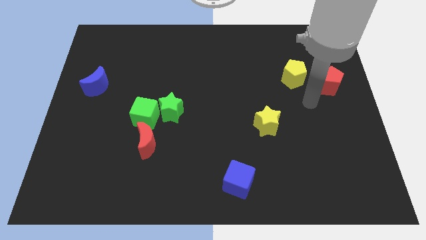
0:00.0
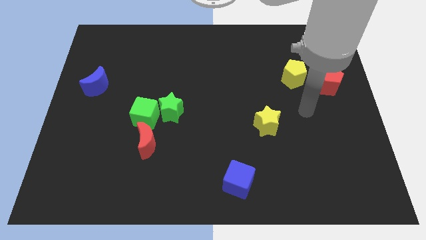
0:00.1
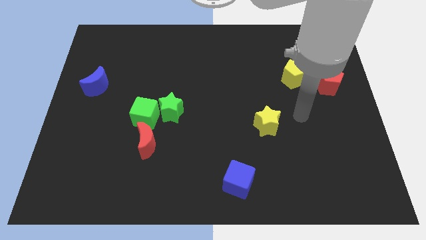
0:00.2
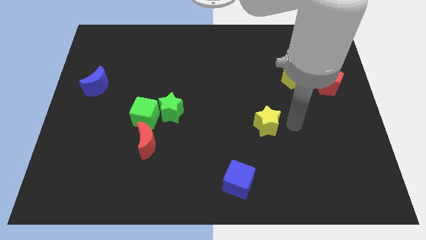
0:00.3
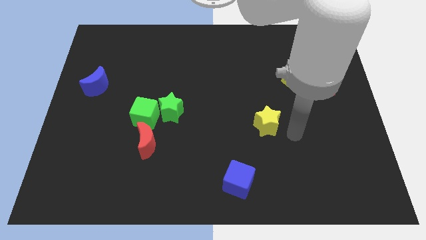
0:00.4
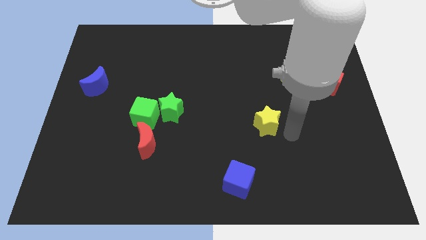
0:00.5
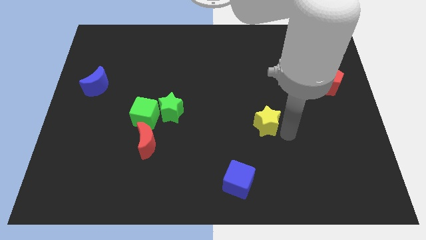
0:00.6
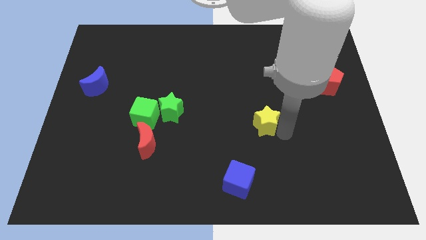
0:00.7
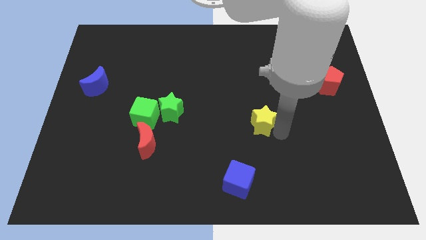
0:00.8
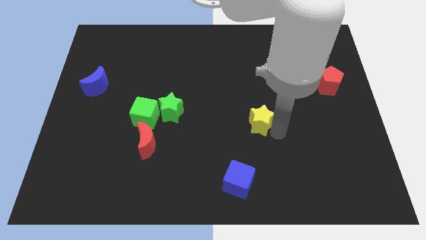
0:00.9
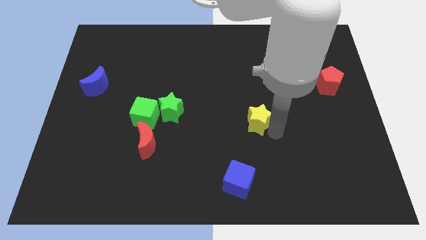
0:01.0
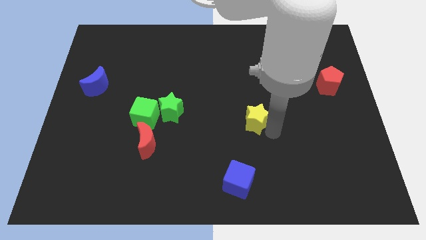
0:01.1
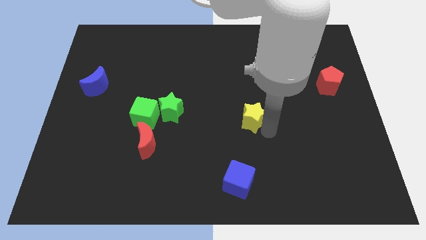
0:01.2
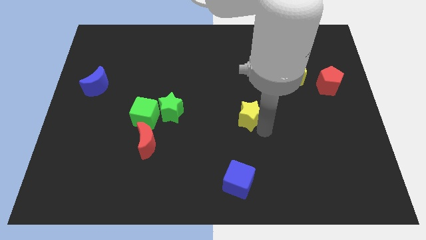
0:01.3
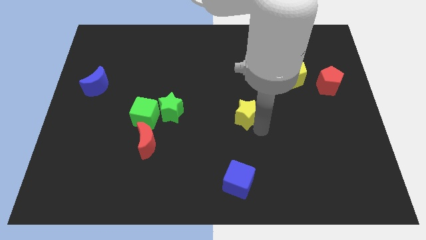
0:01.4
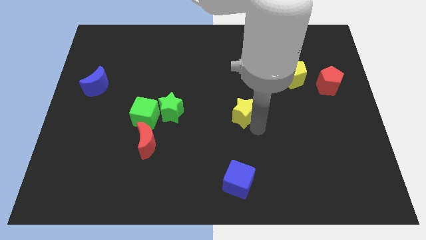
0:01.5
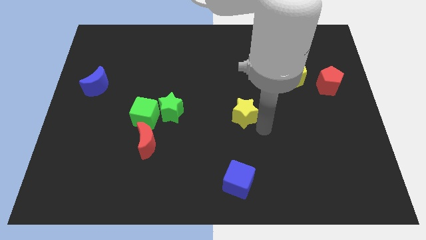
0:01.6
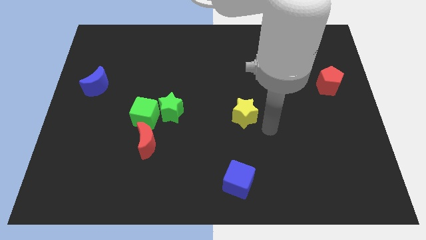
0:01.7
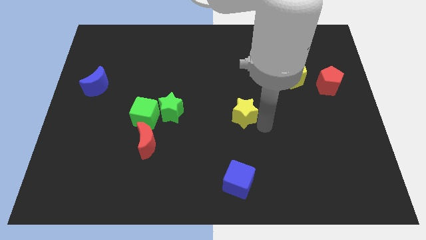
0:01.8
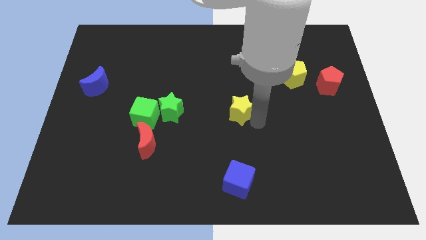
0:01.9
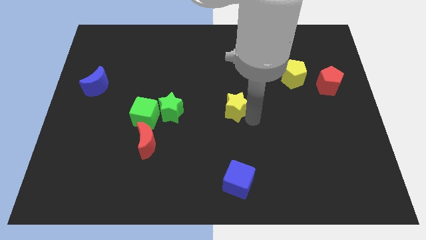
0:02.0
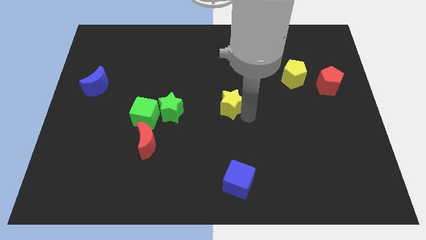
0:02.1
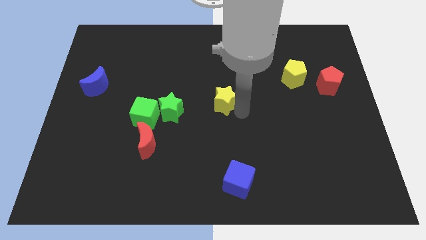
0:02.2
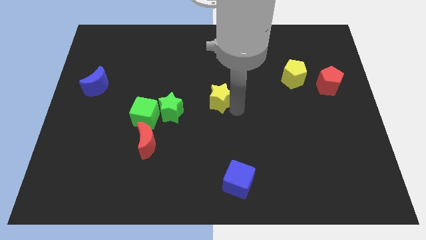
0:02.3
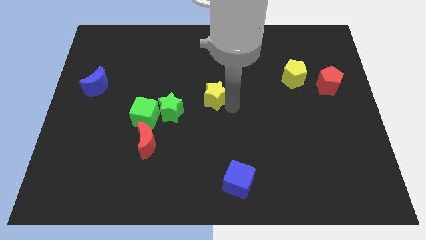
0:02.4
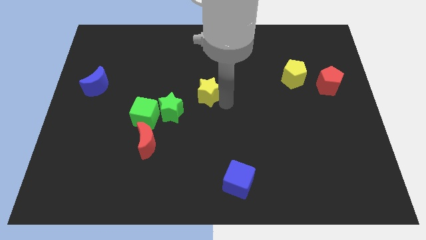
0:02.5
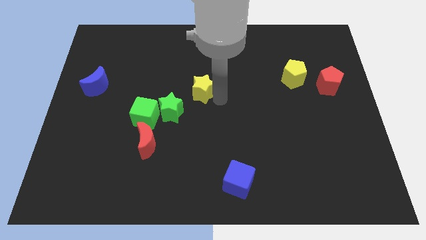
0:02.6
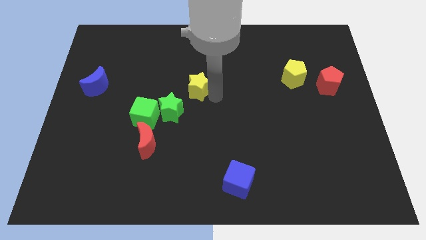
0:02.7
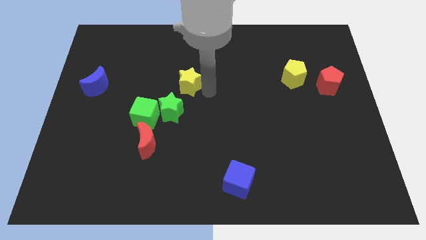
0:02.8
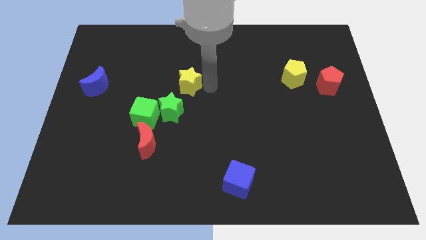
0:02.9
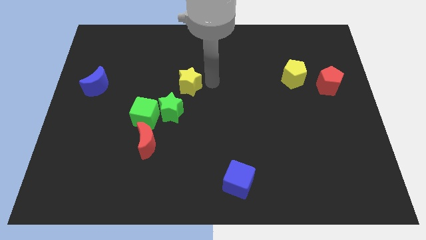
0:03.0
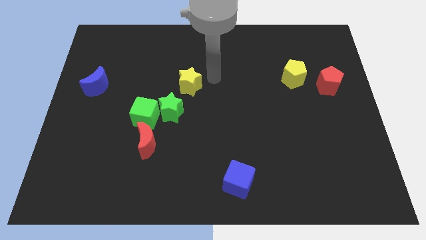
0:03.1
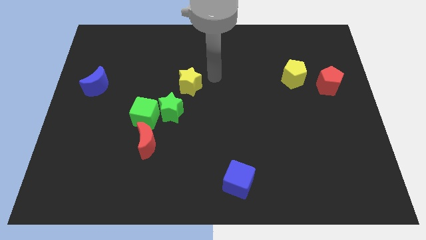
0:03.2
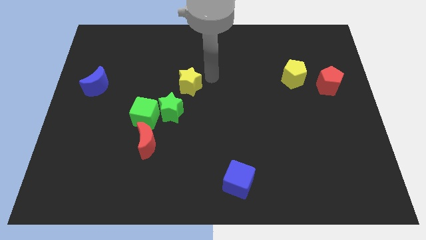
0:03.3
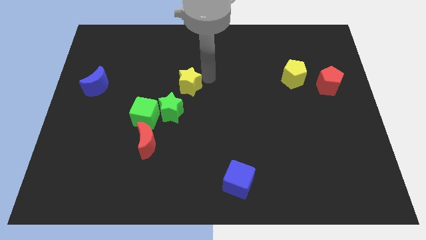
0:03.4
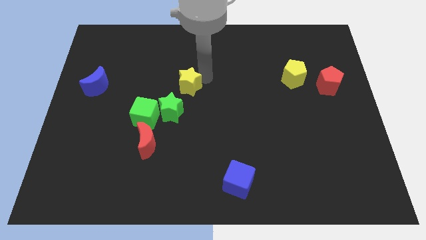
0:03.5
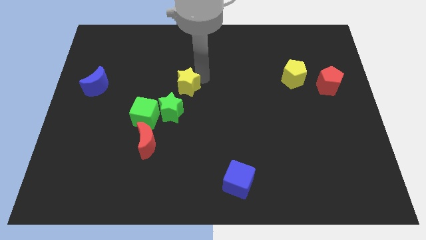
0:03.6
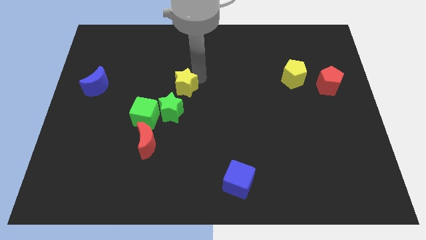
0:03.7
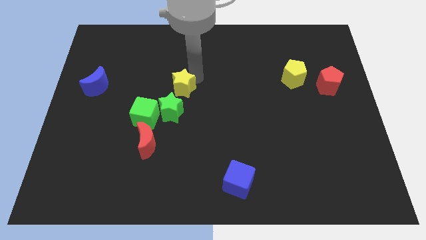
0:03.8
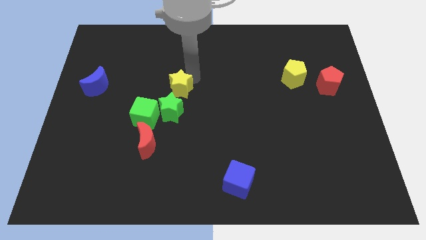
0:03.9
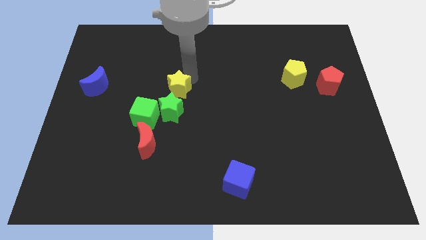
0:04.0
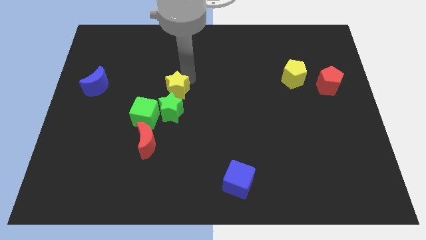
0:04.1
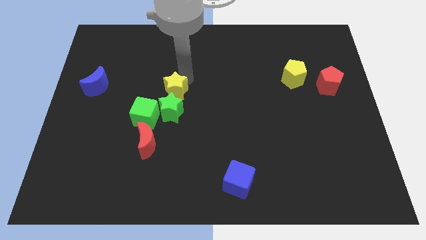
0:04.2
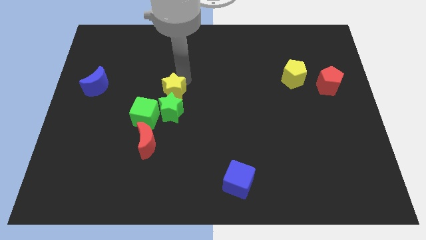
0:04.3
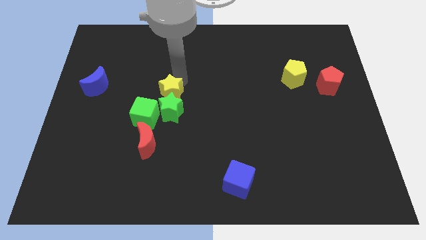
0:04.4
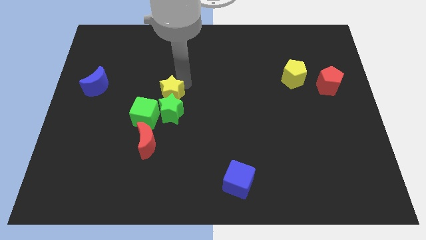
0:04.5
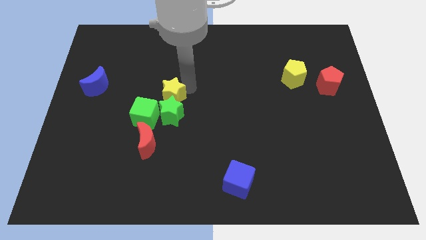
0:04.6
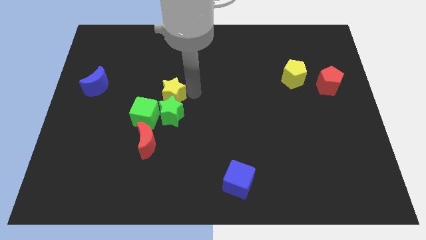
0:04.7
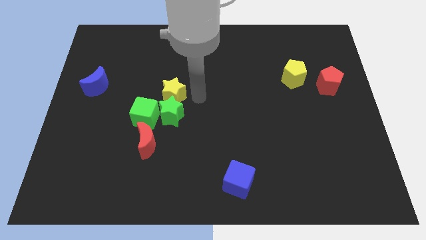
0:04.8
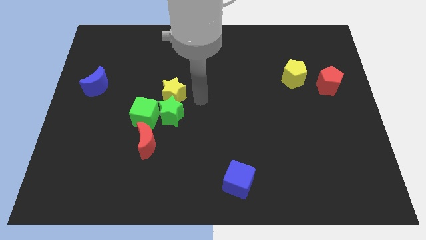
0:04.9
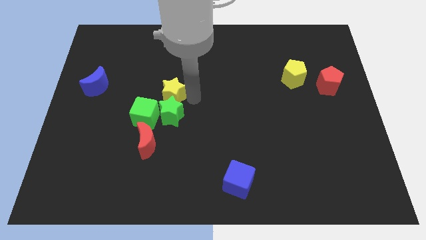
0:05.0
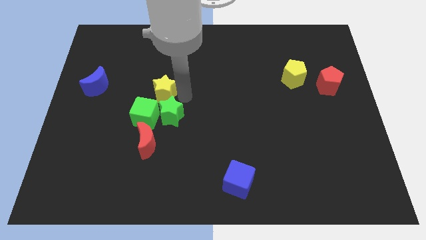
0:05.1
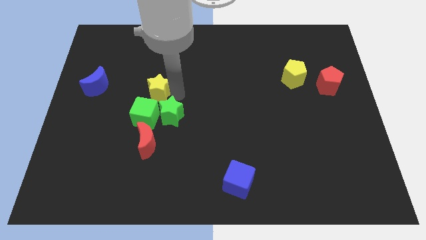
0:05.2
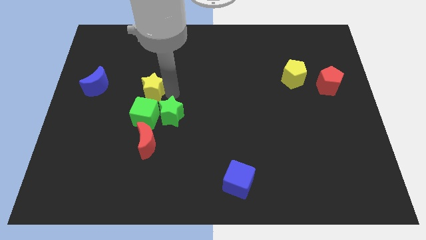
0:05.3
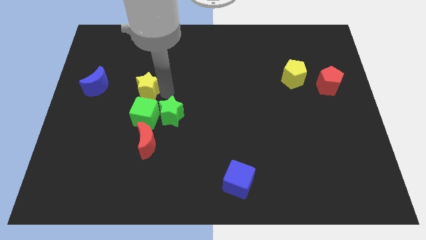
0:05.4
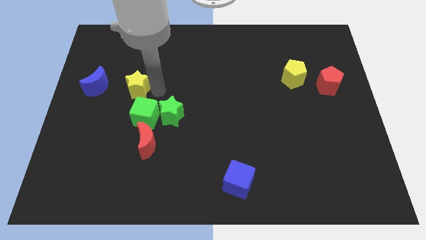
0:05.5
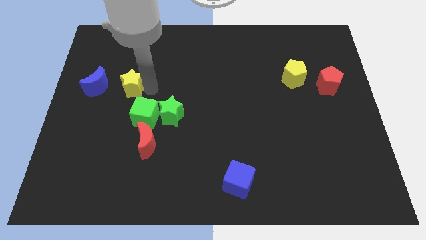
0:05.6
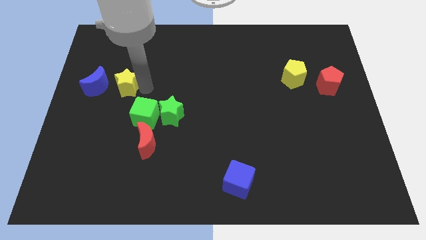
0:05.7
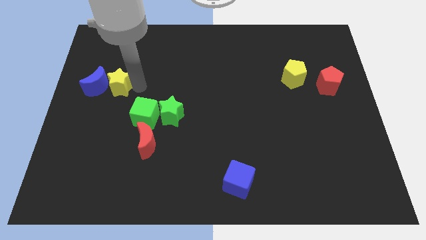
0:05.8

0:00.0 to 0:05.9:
slide the yellow star next to the blue moon

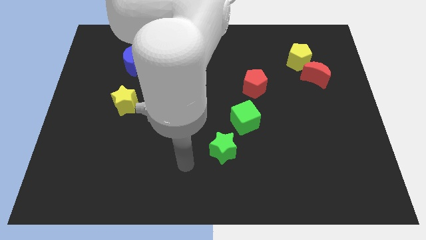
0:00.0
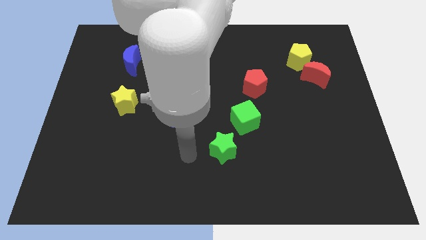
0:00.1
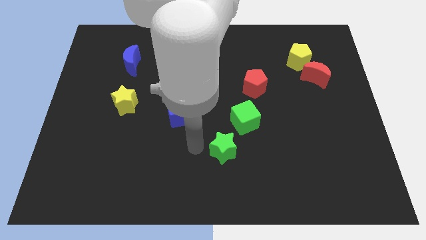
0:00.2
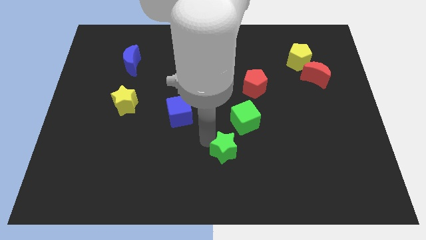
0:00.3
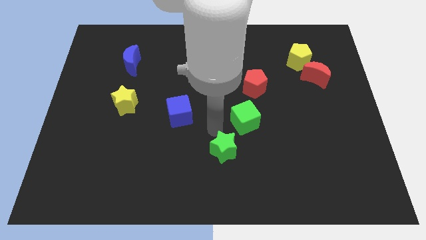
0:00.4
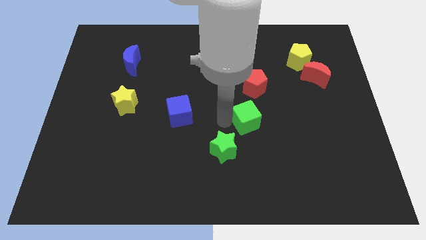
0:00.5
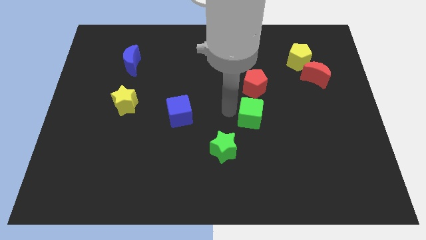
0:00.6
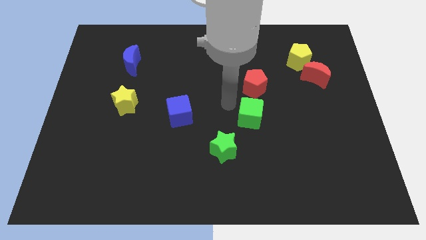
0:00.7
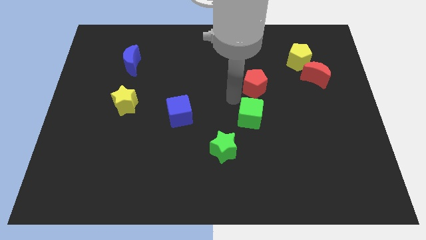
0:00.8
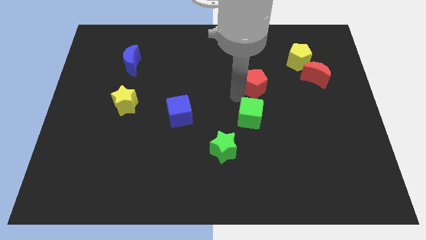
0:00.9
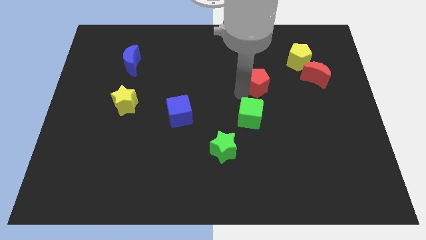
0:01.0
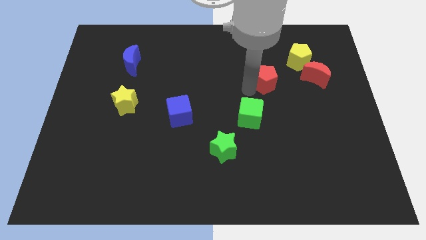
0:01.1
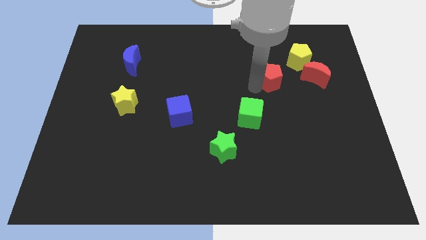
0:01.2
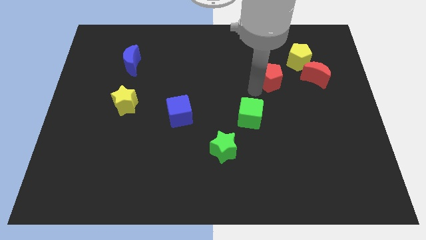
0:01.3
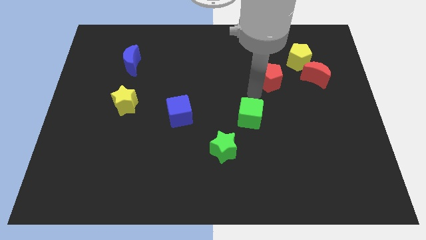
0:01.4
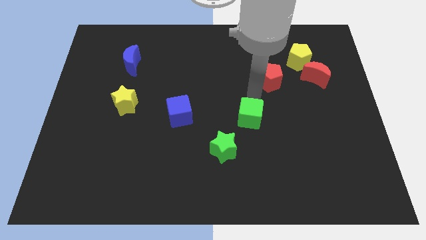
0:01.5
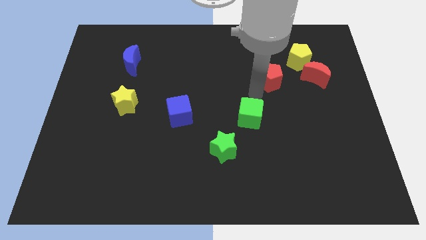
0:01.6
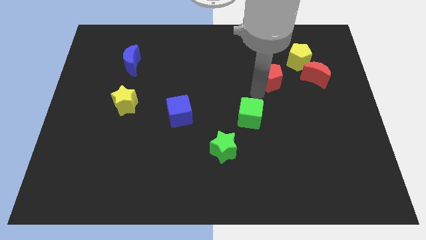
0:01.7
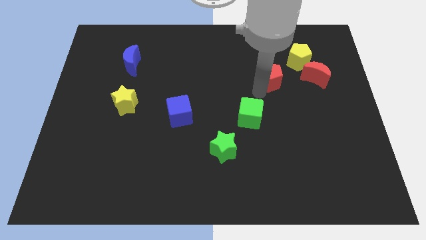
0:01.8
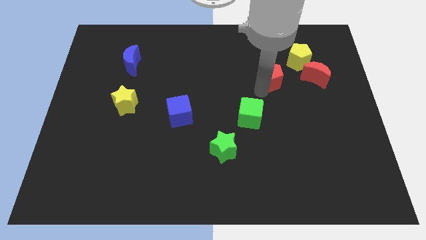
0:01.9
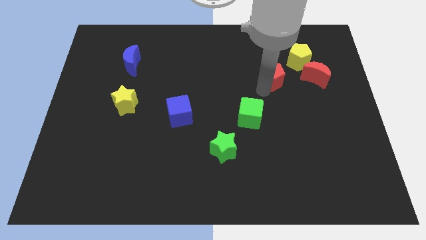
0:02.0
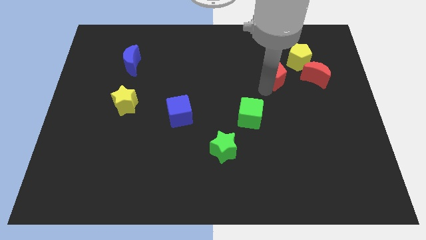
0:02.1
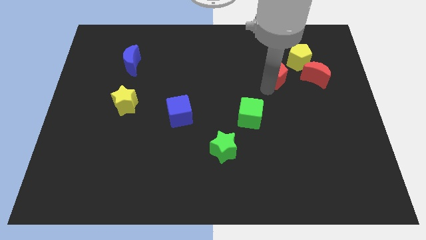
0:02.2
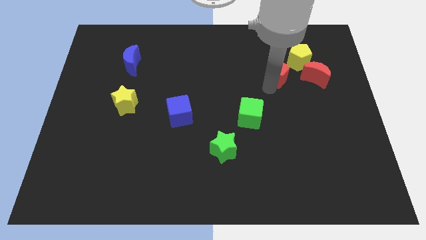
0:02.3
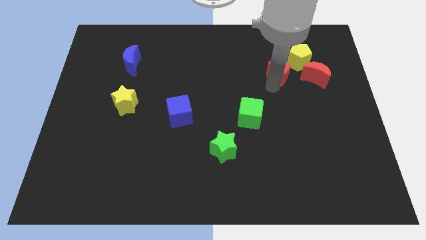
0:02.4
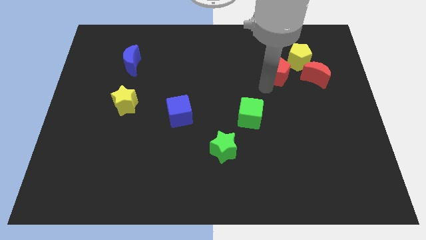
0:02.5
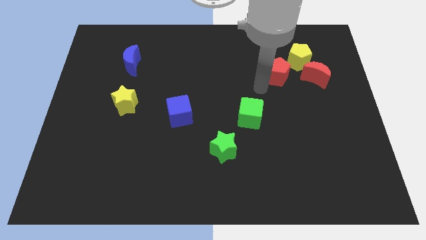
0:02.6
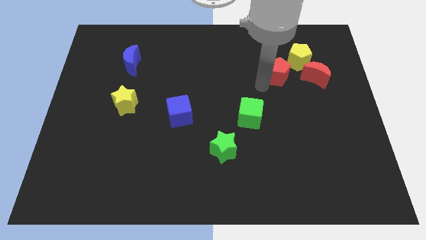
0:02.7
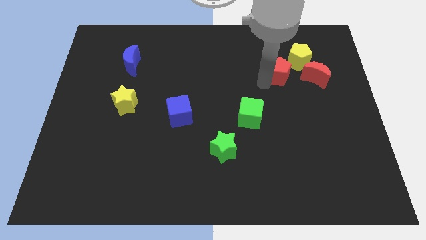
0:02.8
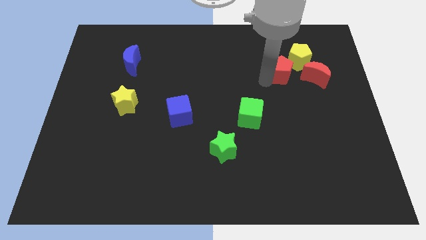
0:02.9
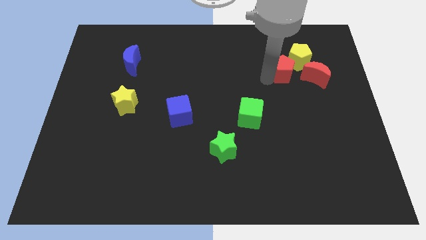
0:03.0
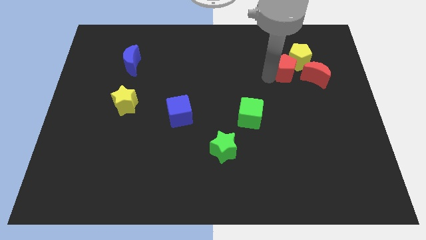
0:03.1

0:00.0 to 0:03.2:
move the red pentagon to the yellow pentagon
